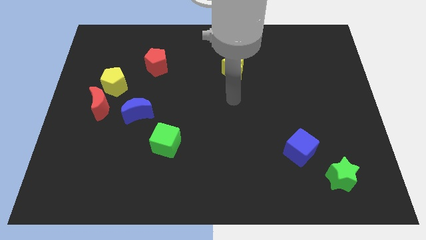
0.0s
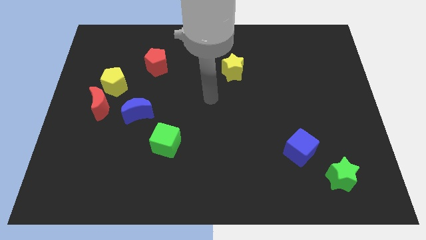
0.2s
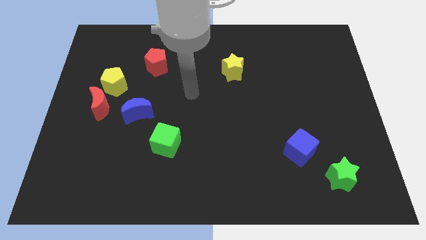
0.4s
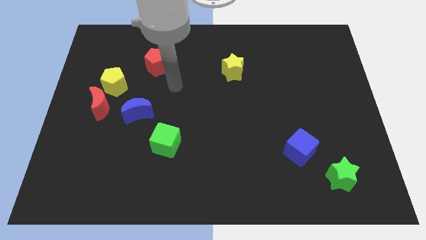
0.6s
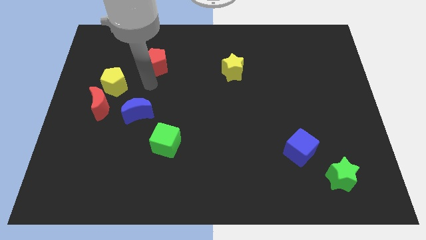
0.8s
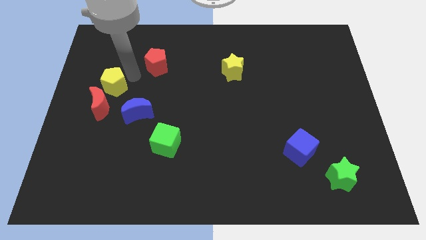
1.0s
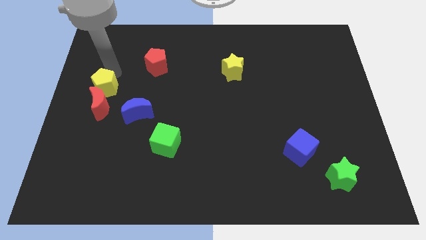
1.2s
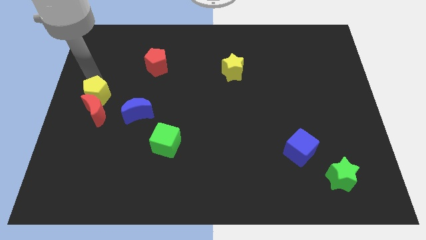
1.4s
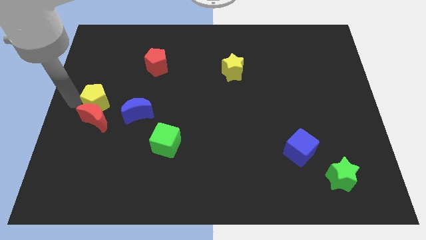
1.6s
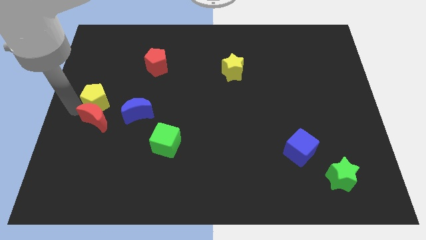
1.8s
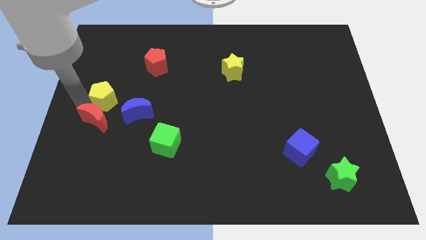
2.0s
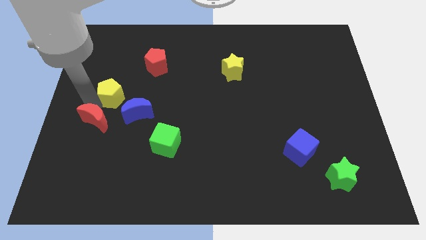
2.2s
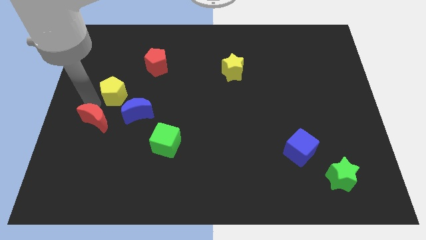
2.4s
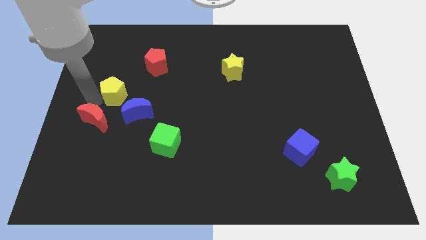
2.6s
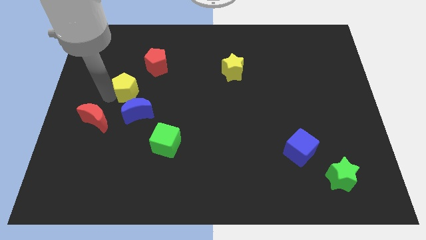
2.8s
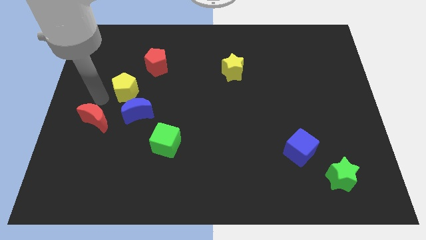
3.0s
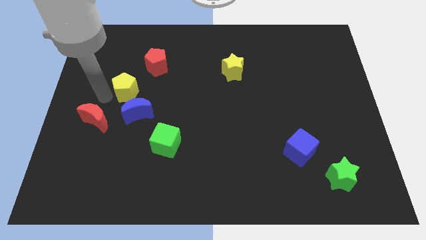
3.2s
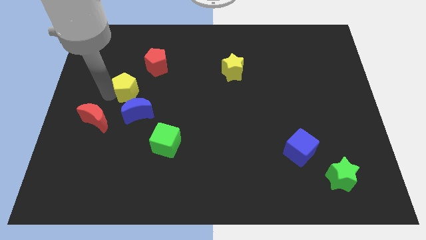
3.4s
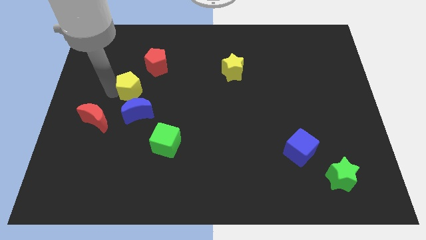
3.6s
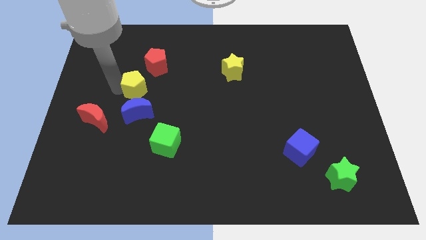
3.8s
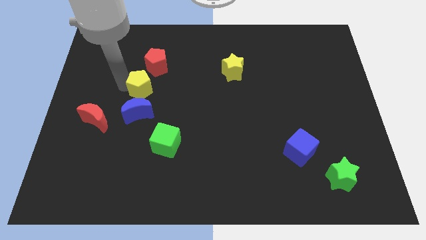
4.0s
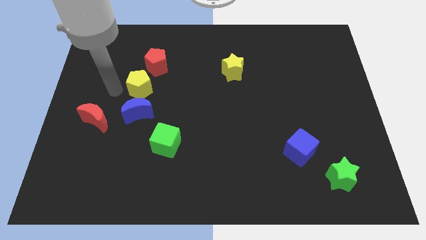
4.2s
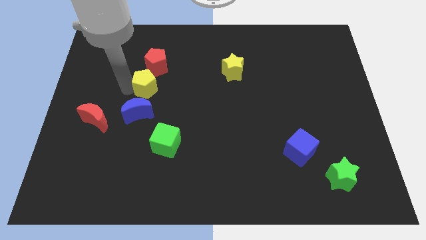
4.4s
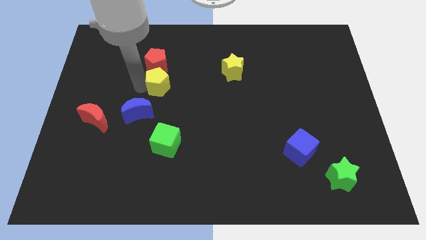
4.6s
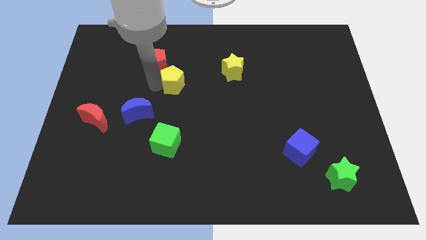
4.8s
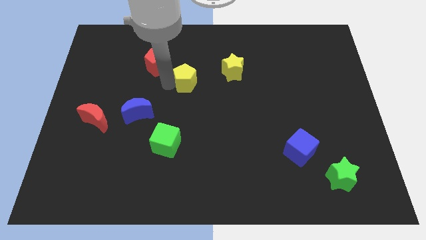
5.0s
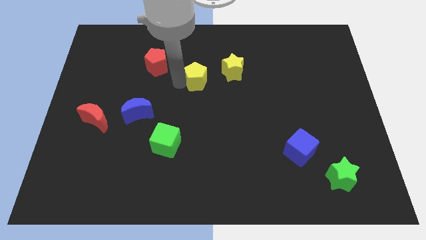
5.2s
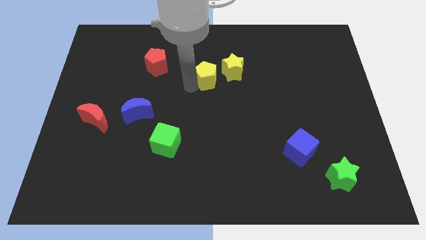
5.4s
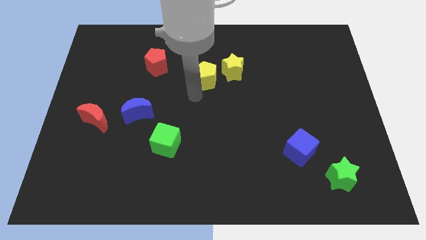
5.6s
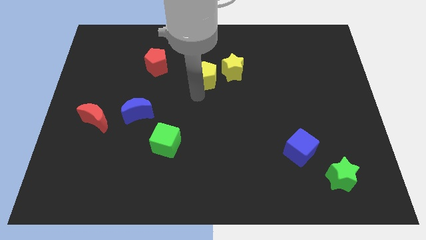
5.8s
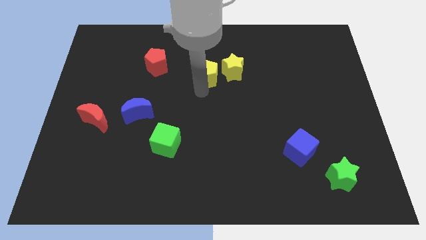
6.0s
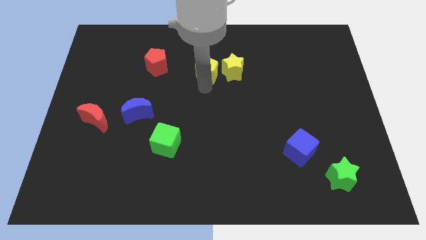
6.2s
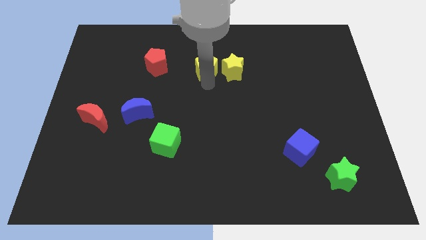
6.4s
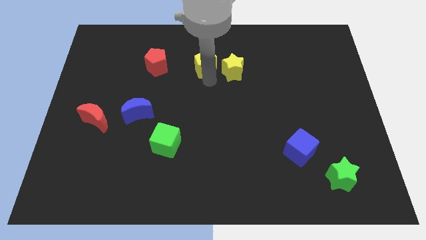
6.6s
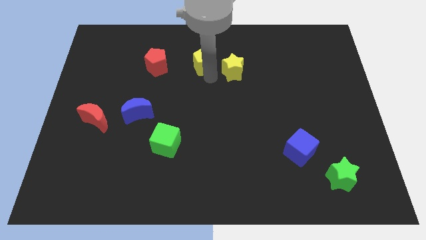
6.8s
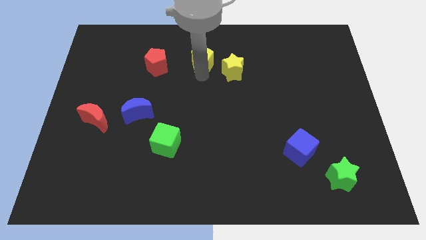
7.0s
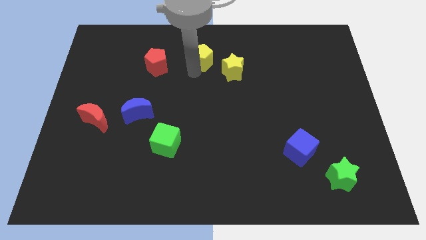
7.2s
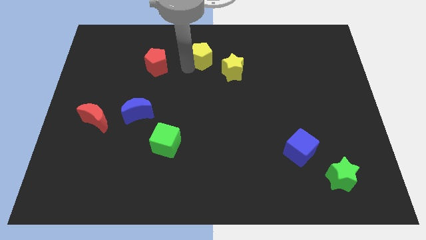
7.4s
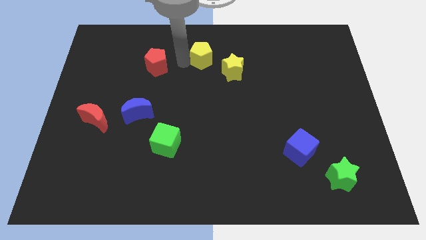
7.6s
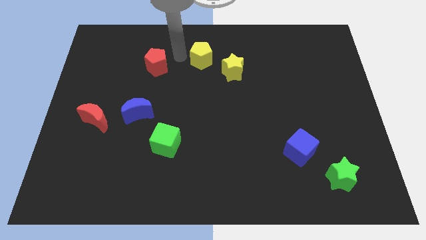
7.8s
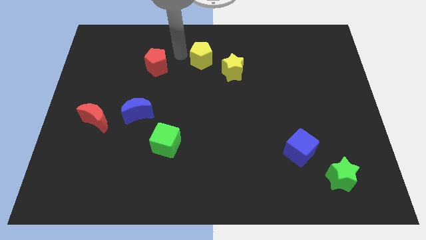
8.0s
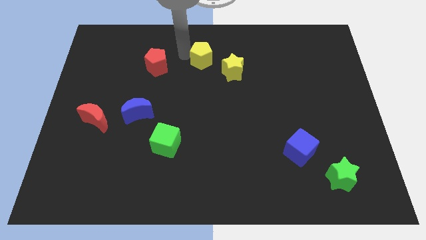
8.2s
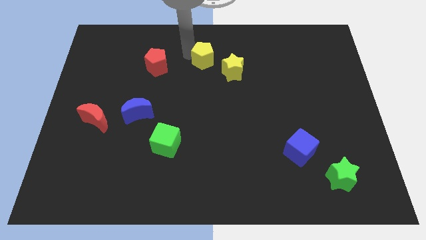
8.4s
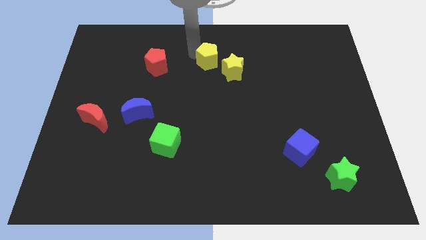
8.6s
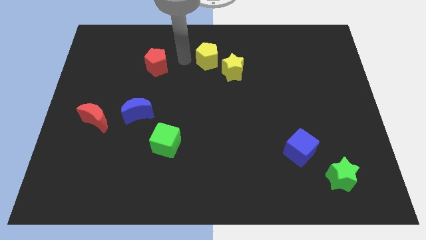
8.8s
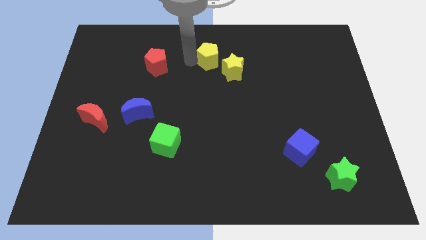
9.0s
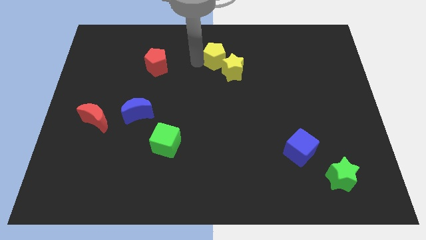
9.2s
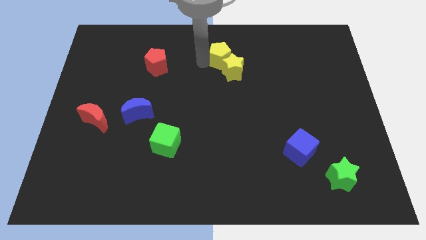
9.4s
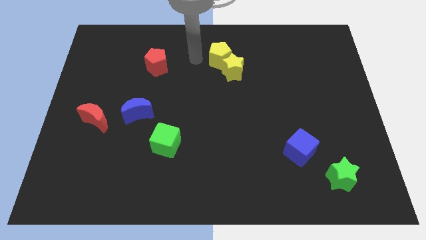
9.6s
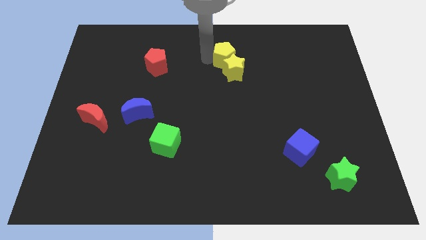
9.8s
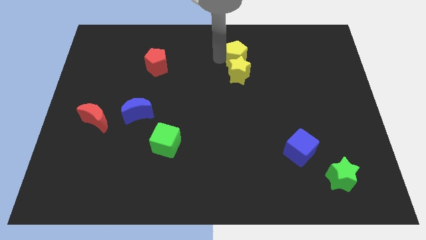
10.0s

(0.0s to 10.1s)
put the yellow pentagon to the top right of the yellow star

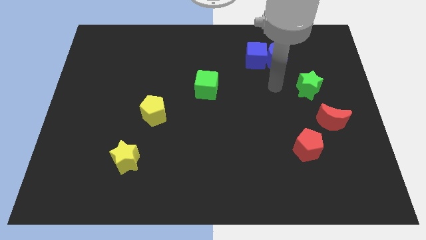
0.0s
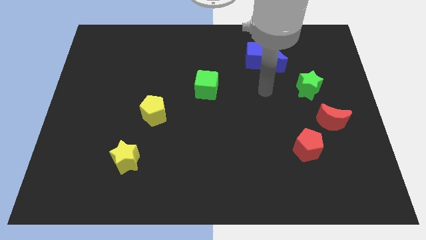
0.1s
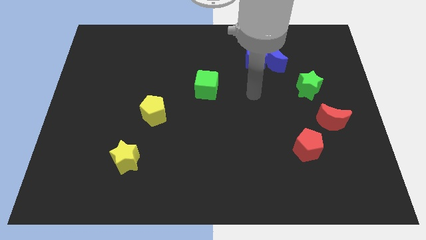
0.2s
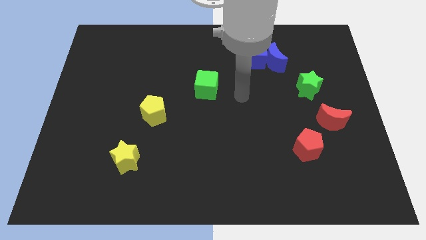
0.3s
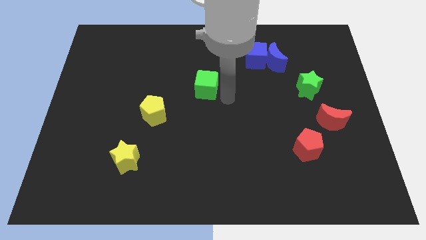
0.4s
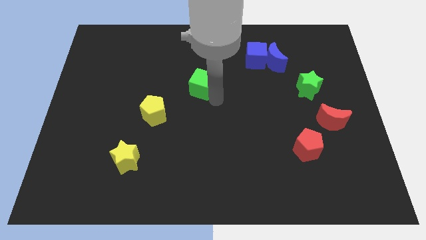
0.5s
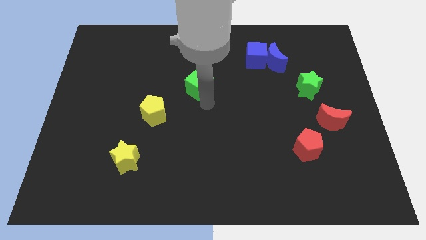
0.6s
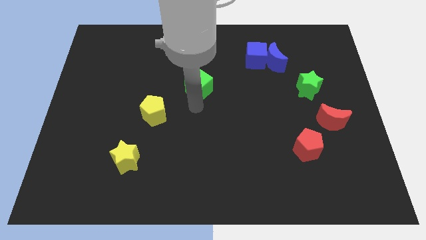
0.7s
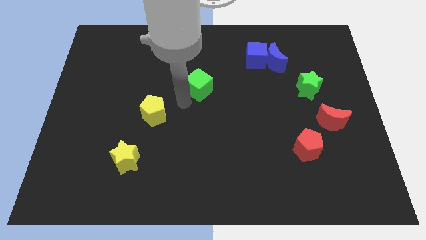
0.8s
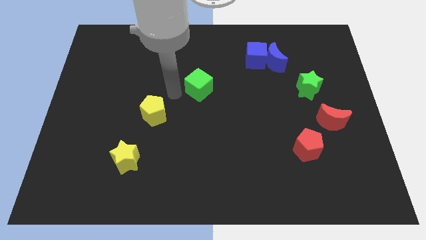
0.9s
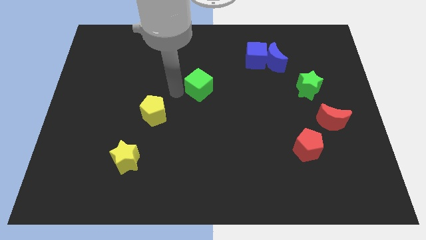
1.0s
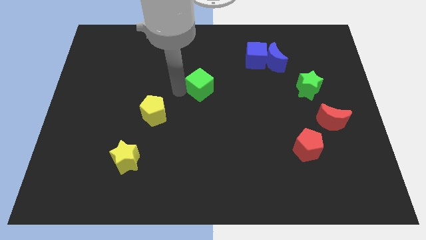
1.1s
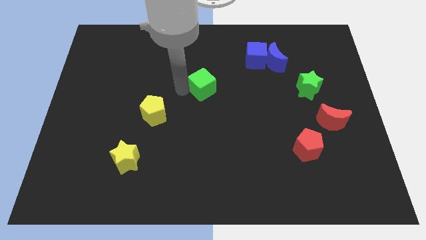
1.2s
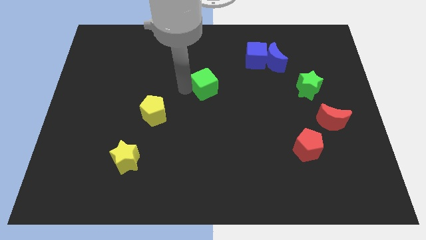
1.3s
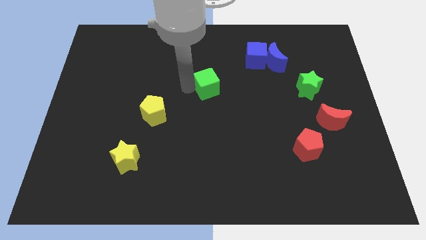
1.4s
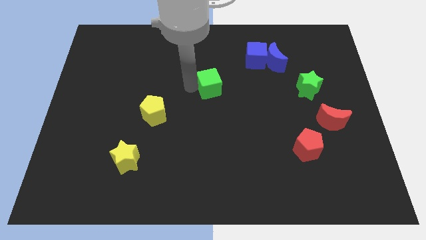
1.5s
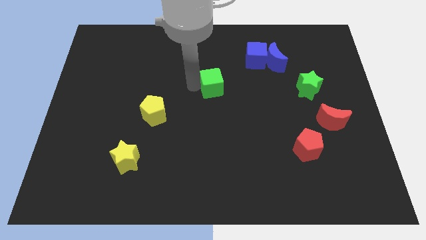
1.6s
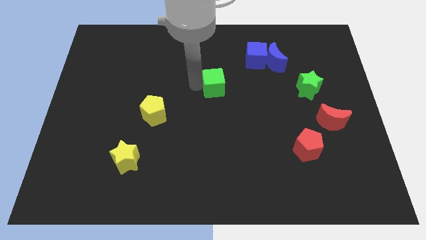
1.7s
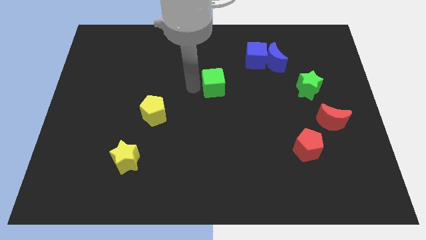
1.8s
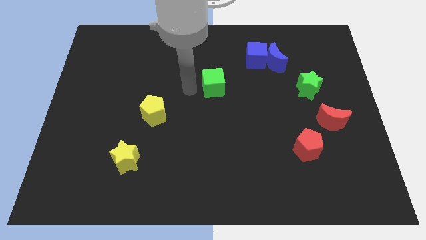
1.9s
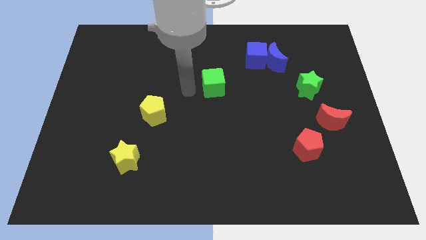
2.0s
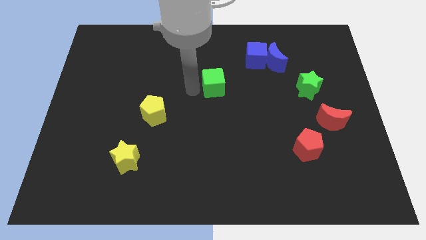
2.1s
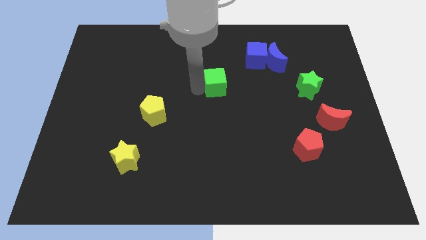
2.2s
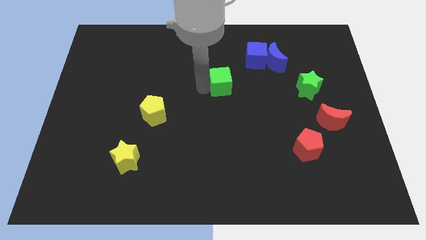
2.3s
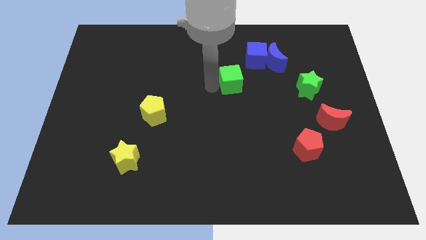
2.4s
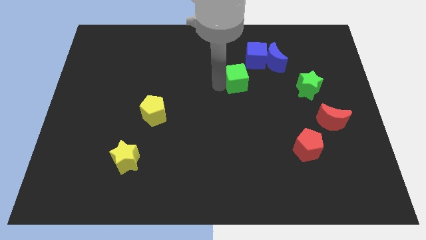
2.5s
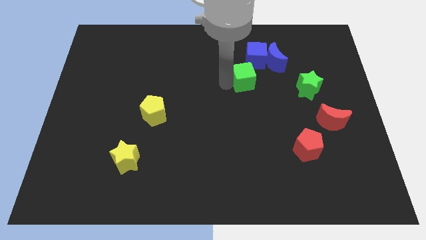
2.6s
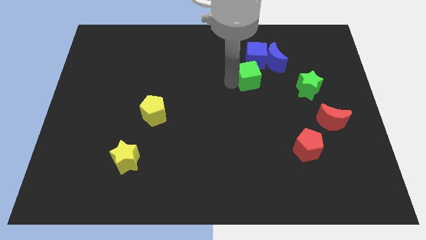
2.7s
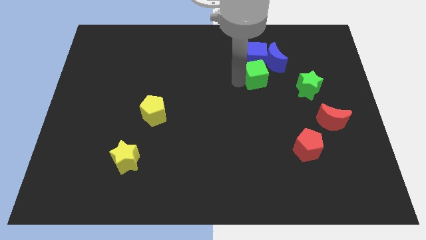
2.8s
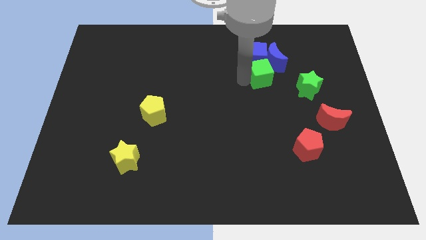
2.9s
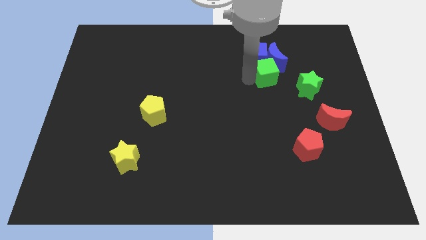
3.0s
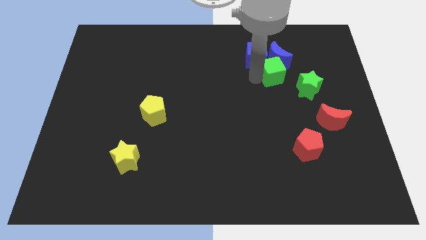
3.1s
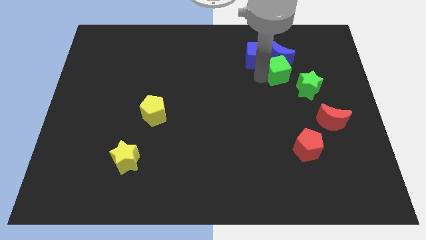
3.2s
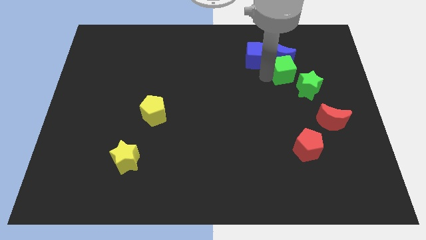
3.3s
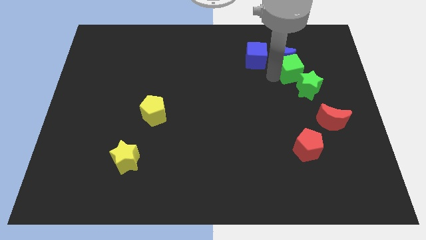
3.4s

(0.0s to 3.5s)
put the green cube to the top side of the green star
